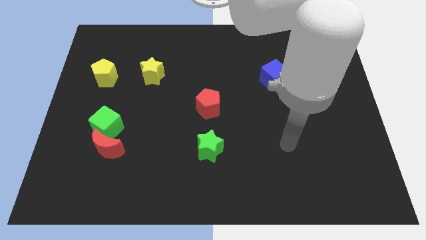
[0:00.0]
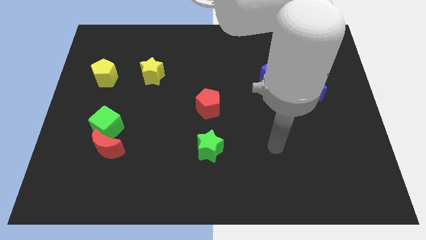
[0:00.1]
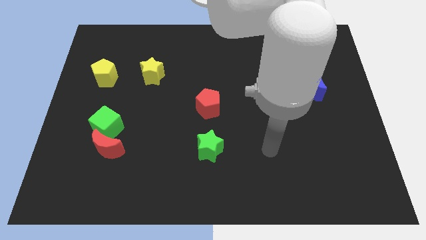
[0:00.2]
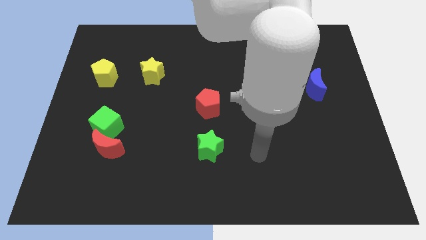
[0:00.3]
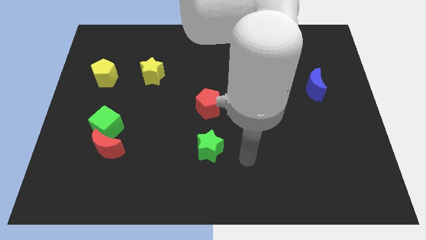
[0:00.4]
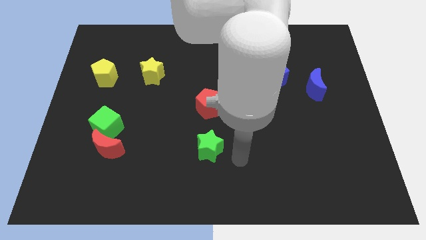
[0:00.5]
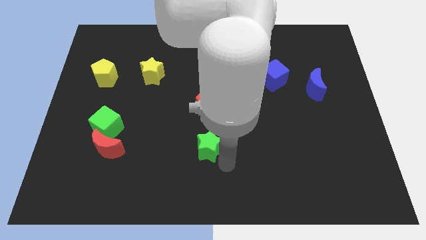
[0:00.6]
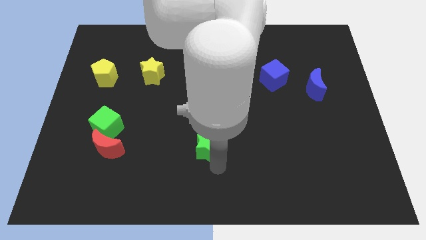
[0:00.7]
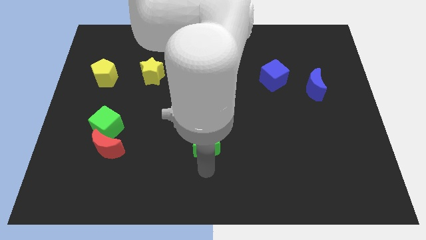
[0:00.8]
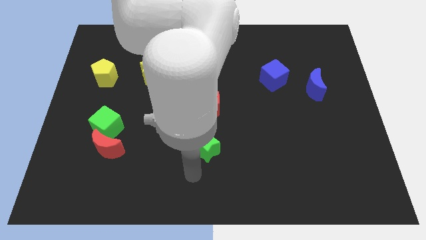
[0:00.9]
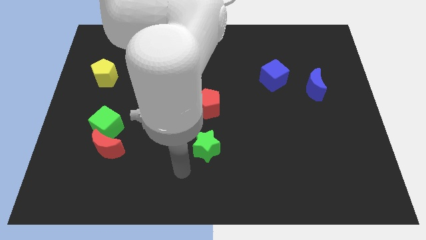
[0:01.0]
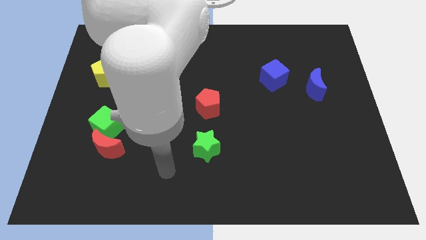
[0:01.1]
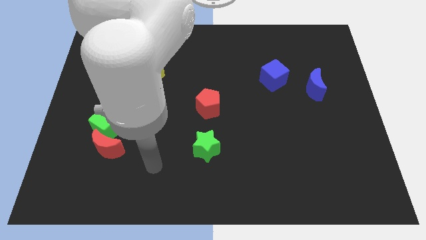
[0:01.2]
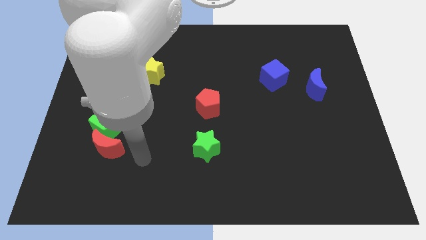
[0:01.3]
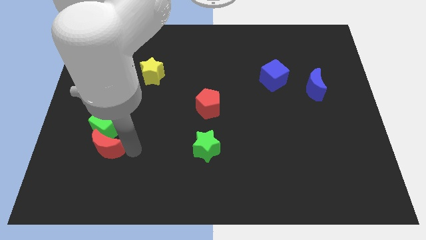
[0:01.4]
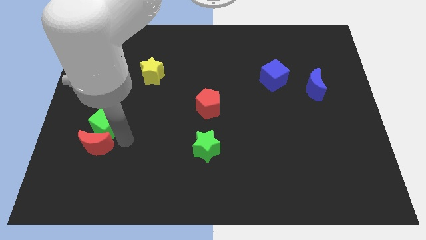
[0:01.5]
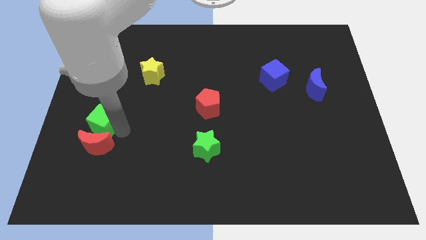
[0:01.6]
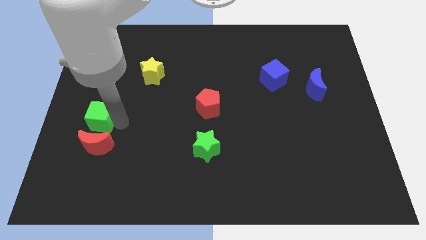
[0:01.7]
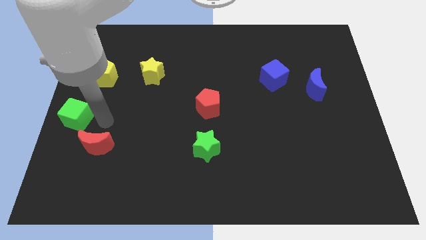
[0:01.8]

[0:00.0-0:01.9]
separate the red moon from the green cube

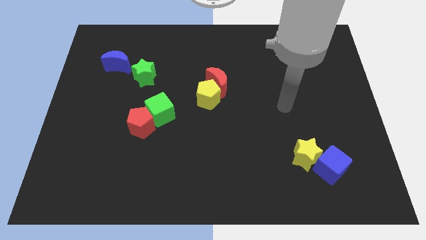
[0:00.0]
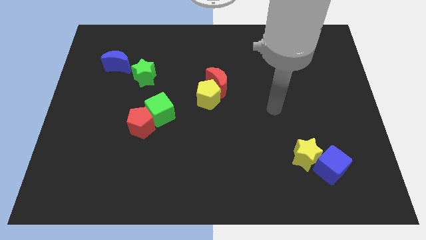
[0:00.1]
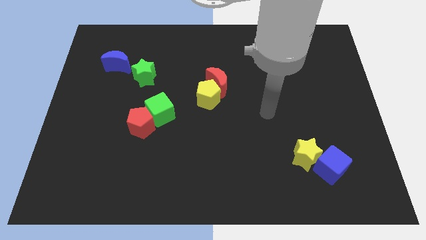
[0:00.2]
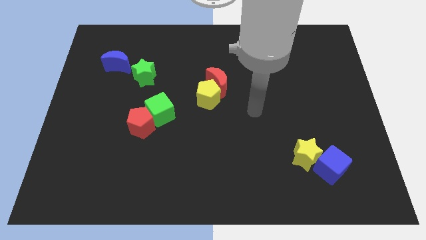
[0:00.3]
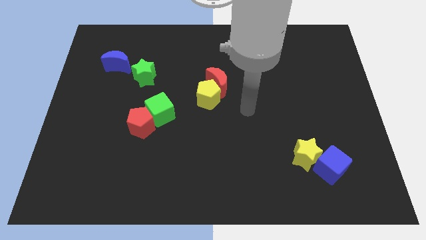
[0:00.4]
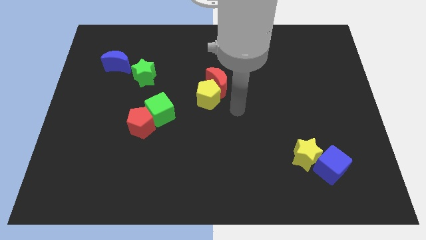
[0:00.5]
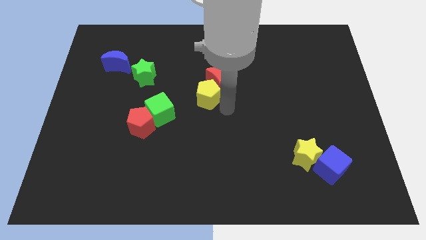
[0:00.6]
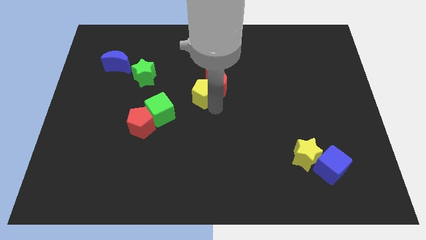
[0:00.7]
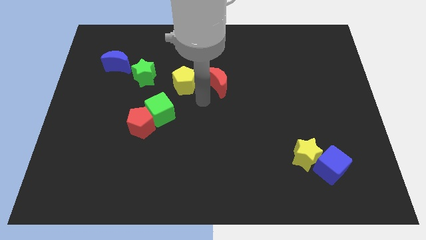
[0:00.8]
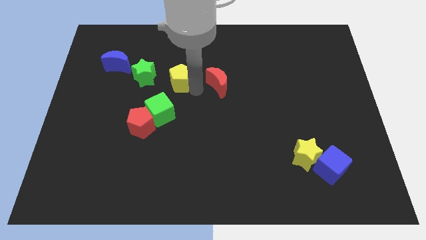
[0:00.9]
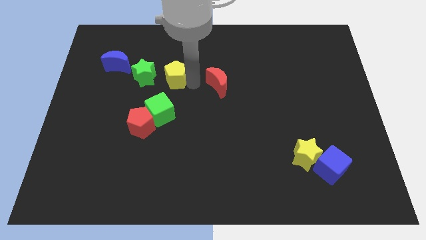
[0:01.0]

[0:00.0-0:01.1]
separate the red moon from the yellow pentagon

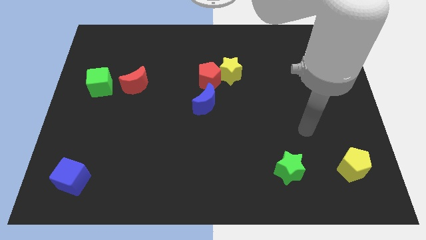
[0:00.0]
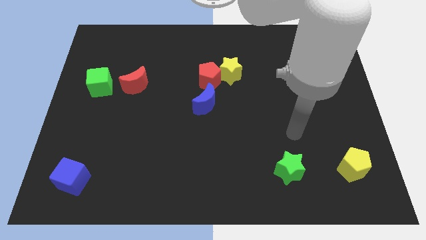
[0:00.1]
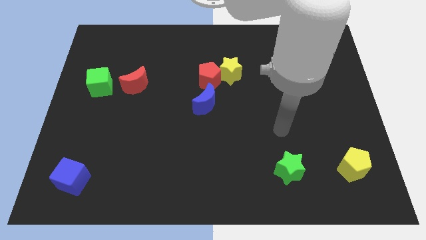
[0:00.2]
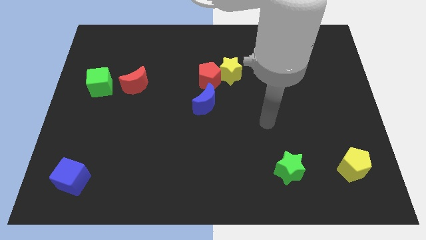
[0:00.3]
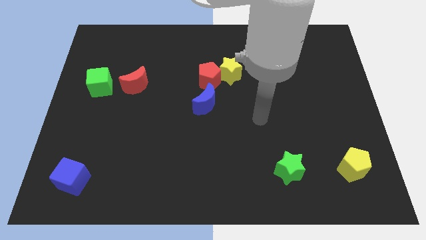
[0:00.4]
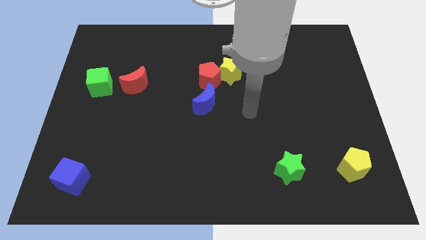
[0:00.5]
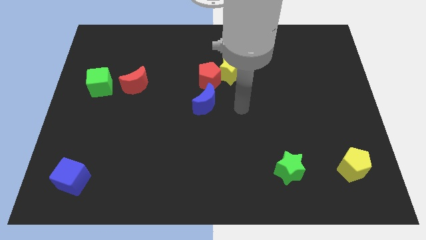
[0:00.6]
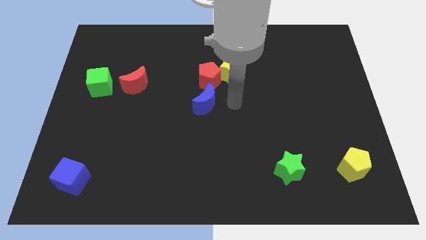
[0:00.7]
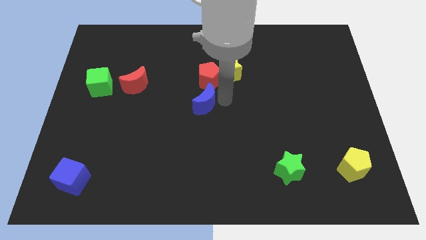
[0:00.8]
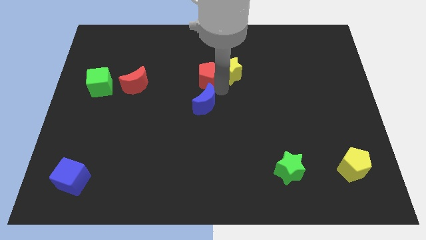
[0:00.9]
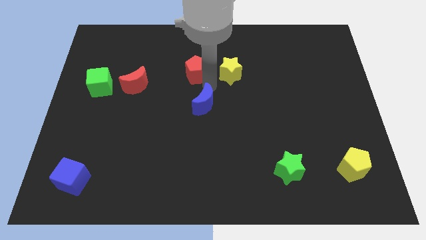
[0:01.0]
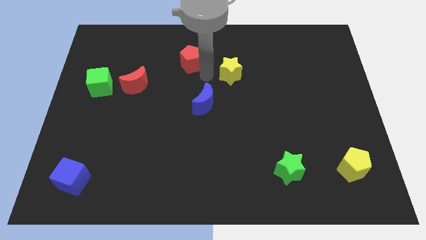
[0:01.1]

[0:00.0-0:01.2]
move the yellow star away from the red pentagon

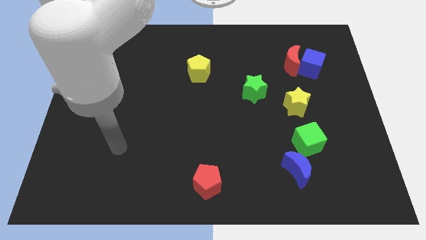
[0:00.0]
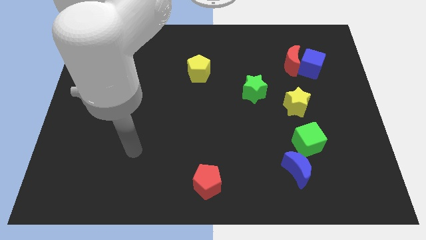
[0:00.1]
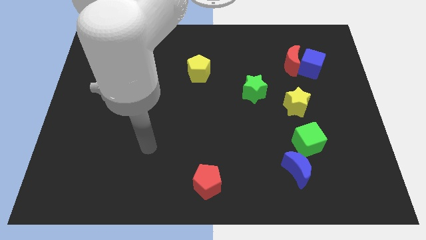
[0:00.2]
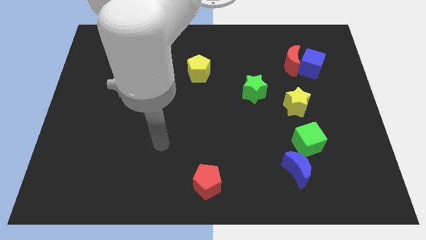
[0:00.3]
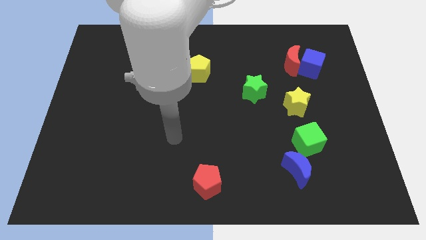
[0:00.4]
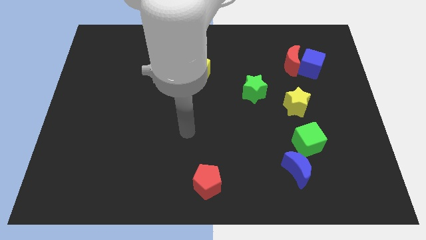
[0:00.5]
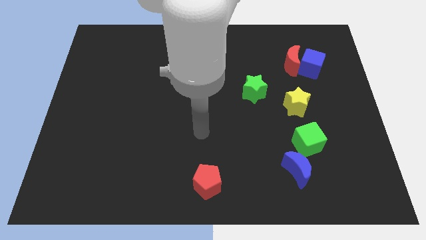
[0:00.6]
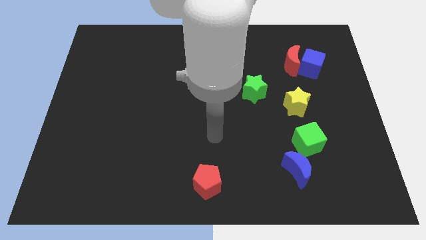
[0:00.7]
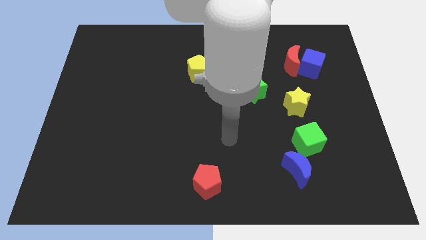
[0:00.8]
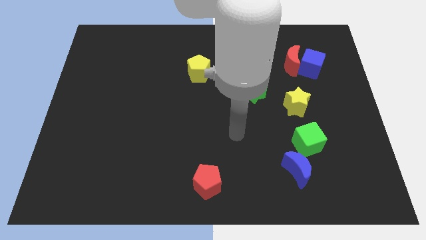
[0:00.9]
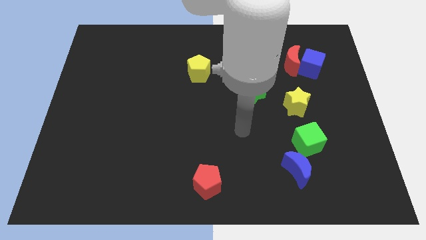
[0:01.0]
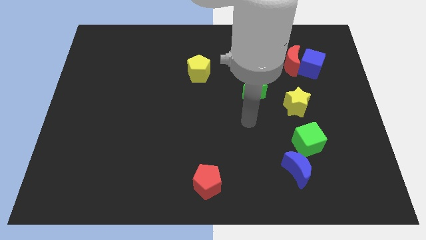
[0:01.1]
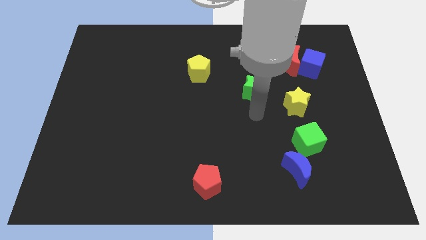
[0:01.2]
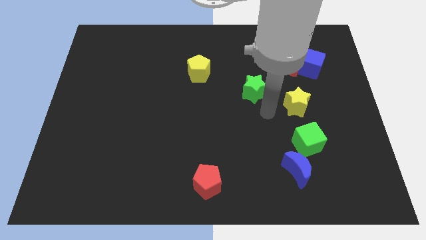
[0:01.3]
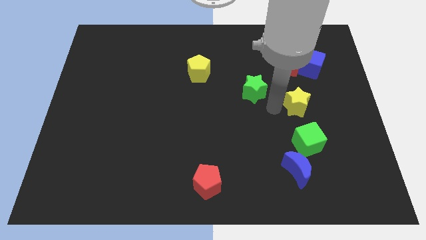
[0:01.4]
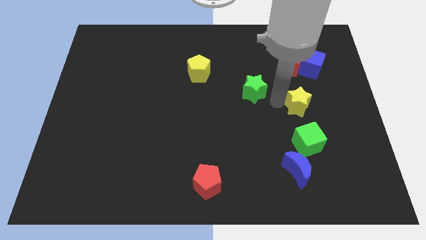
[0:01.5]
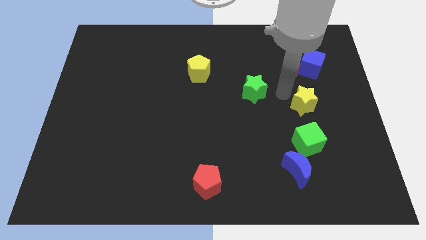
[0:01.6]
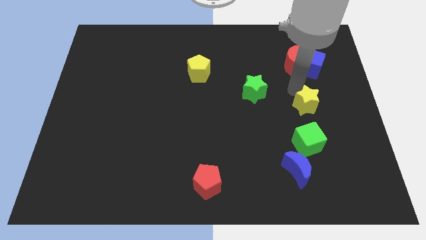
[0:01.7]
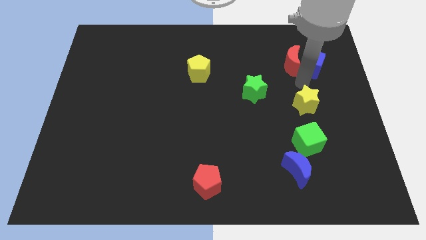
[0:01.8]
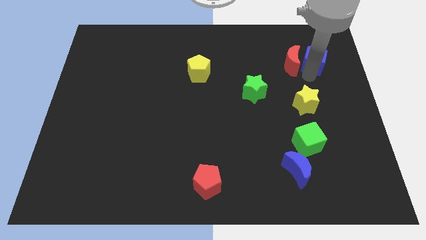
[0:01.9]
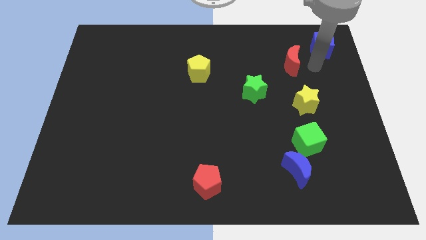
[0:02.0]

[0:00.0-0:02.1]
pull the red moon apart from the blue cube

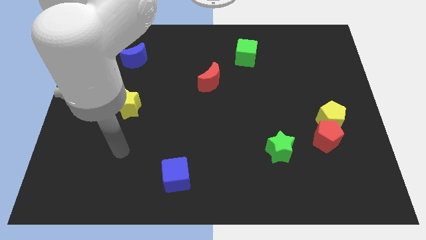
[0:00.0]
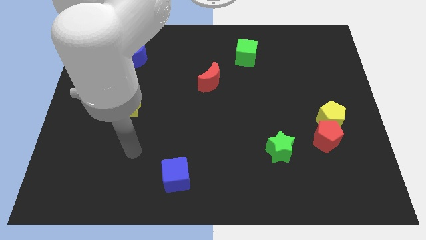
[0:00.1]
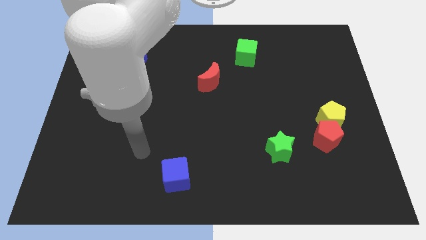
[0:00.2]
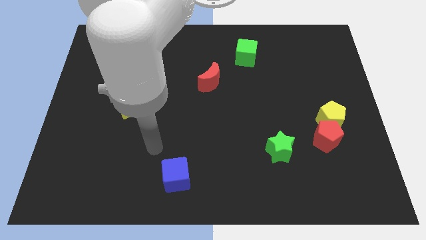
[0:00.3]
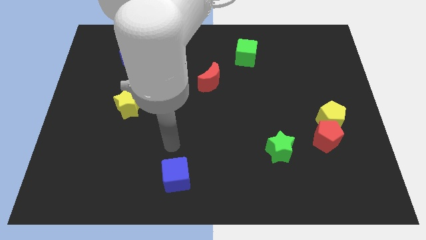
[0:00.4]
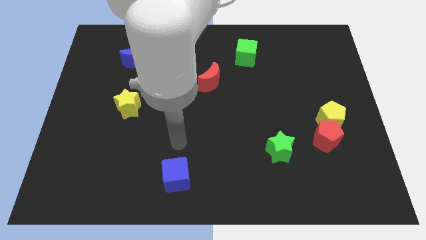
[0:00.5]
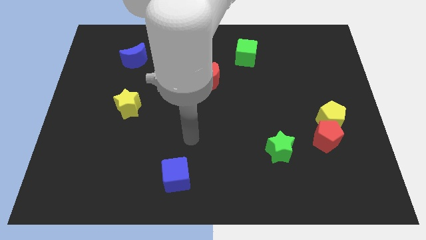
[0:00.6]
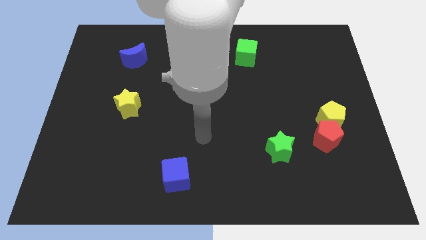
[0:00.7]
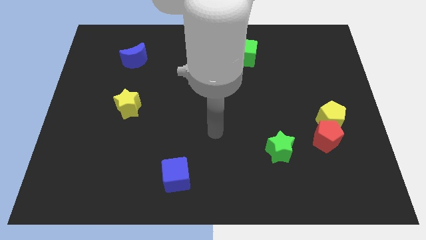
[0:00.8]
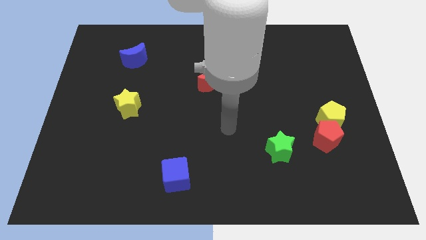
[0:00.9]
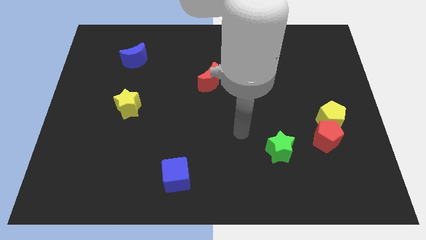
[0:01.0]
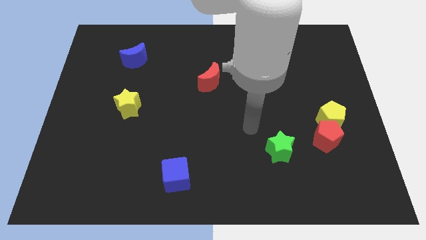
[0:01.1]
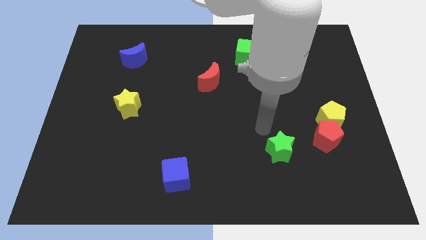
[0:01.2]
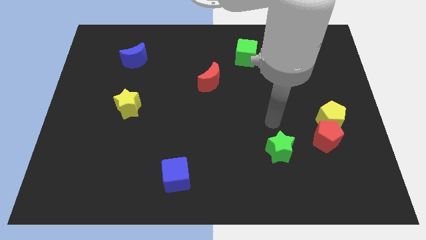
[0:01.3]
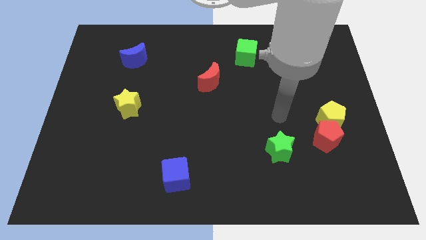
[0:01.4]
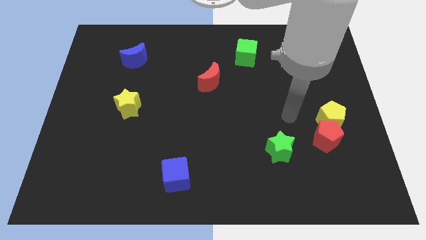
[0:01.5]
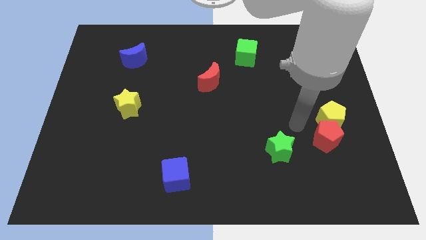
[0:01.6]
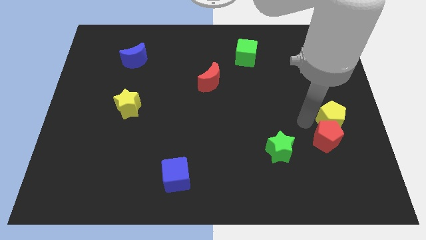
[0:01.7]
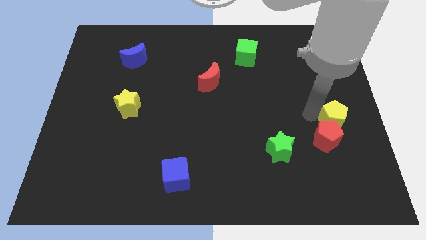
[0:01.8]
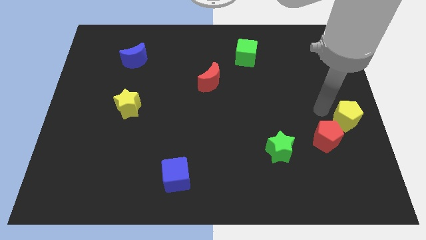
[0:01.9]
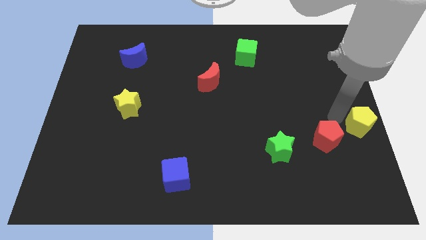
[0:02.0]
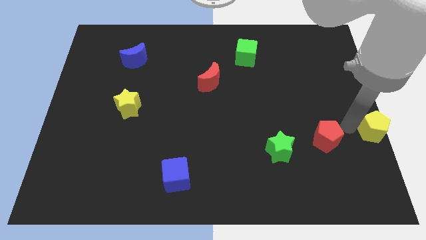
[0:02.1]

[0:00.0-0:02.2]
pull the red pentagon apart from the yellow pentagon

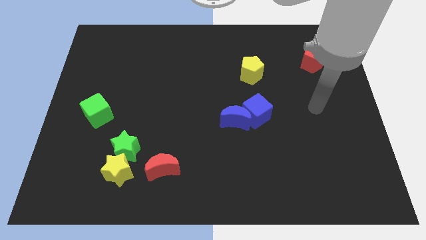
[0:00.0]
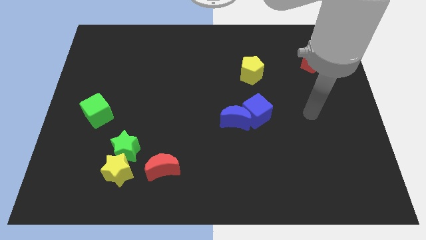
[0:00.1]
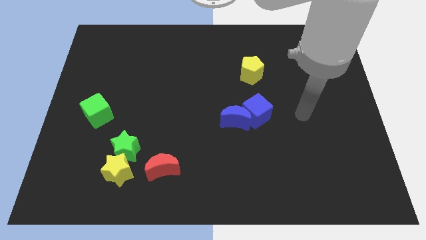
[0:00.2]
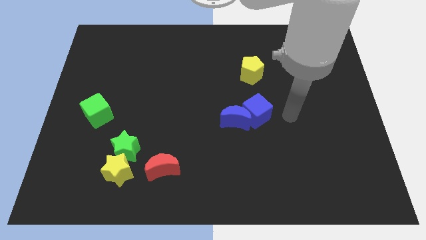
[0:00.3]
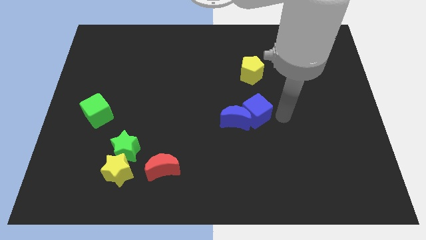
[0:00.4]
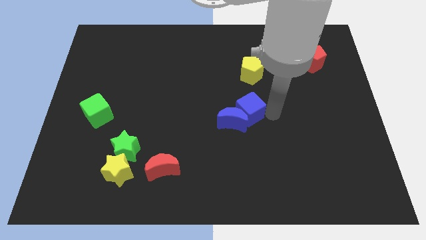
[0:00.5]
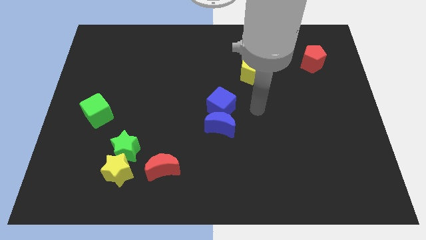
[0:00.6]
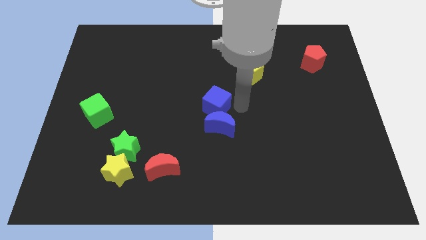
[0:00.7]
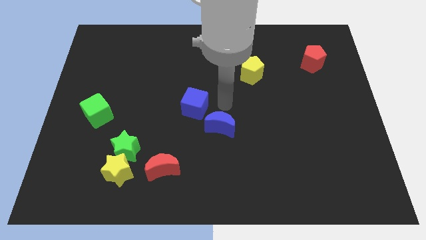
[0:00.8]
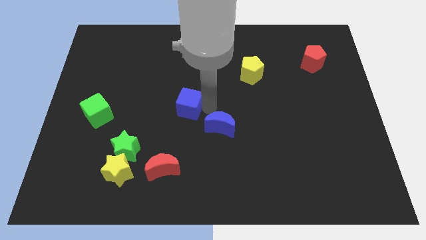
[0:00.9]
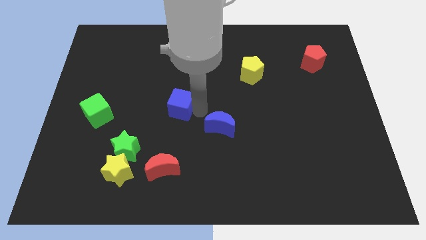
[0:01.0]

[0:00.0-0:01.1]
pull the blue moon apart from the blue cube
